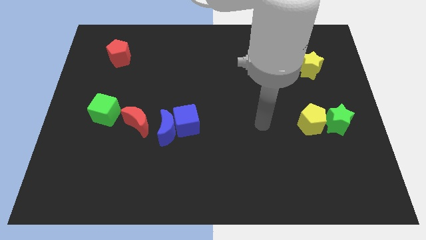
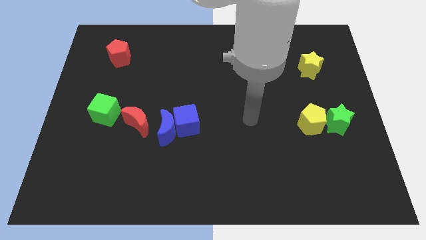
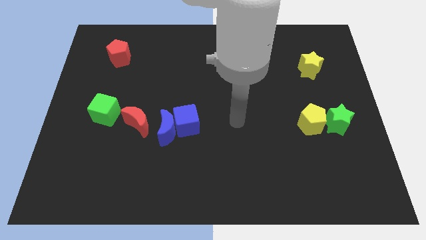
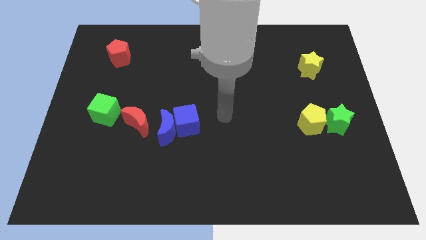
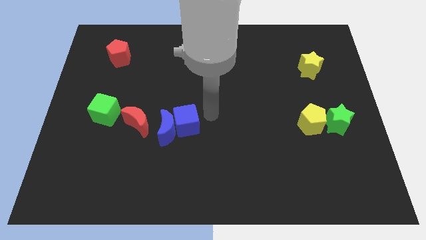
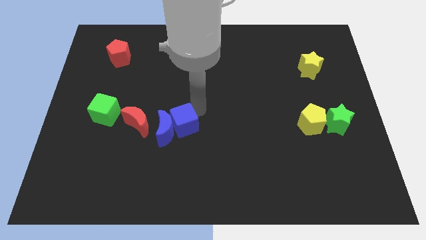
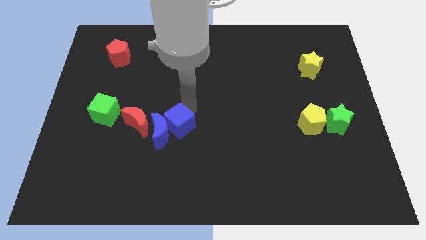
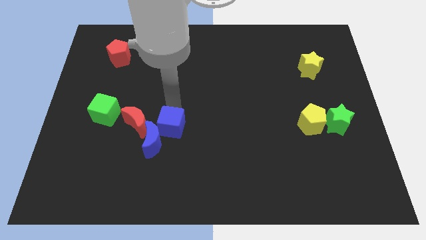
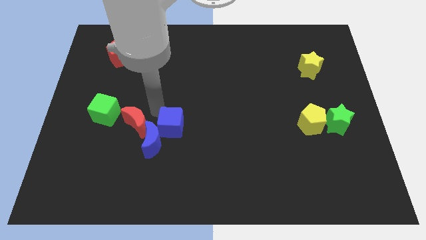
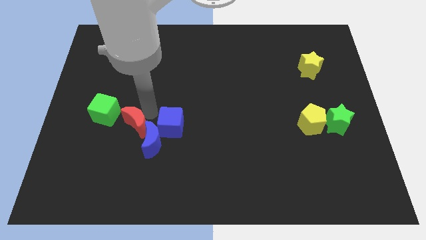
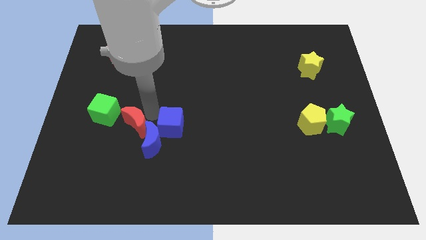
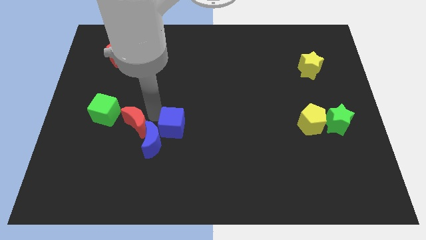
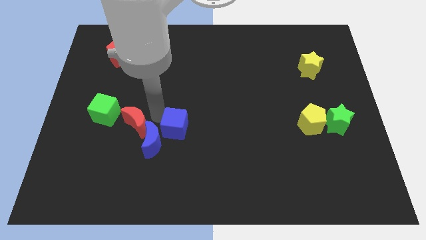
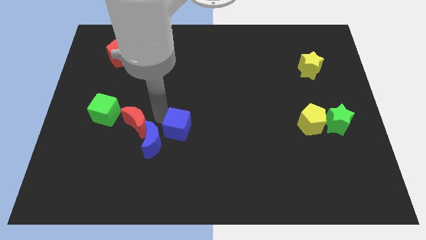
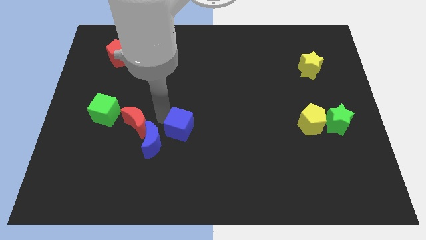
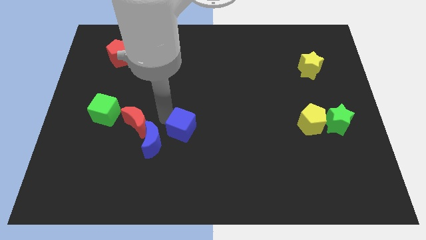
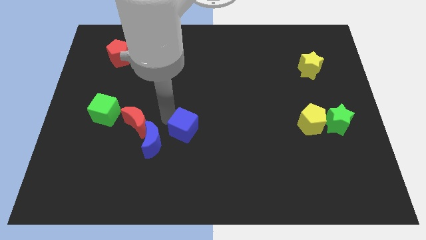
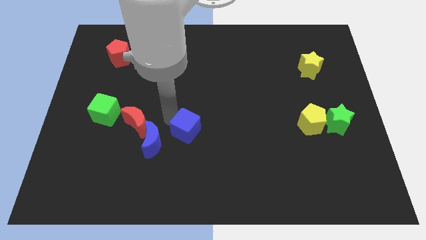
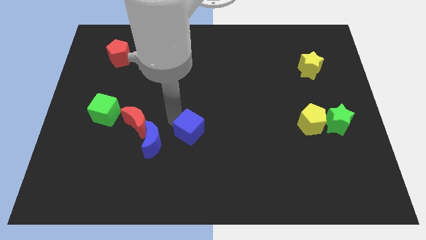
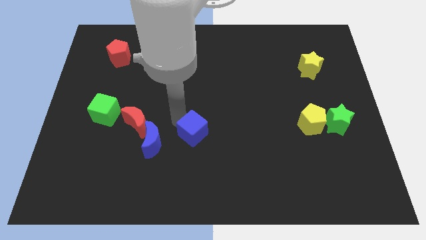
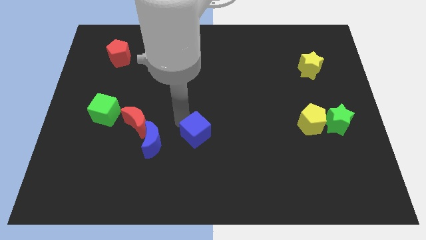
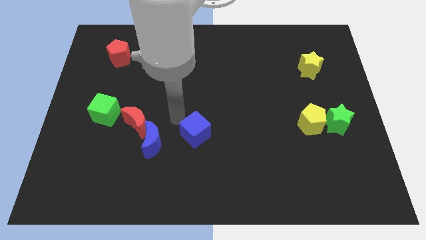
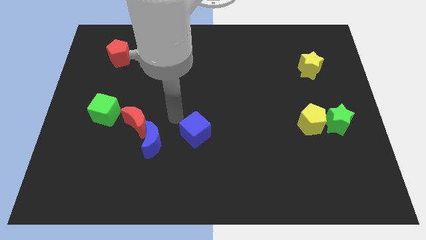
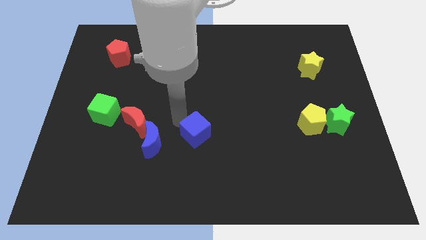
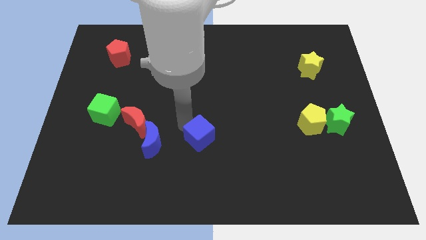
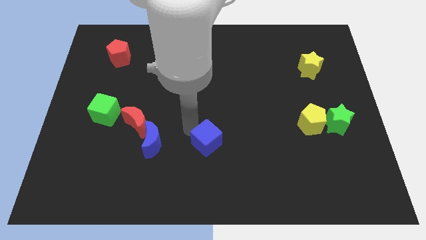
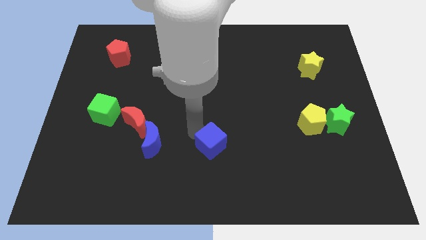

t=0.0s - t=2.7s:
push the blue cube slightly down and right

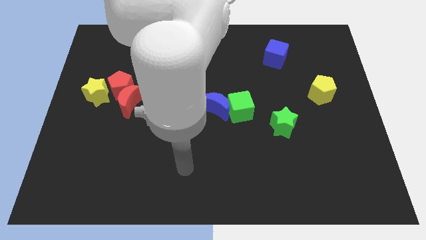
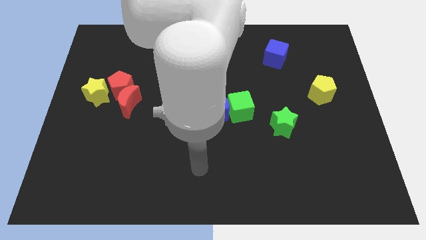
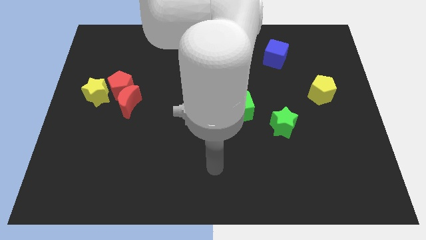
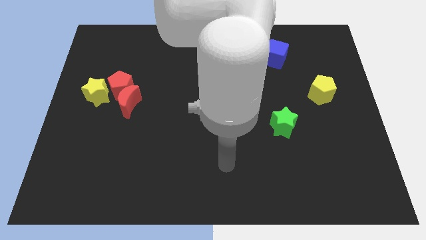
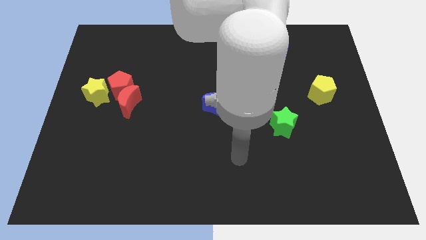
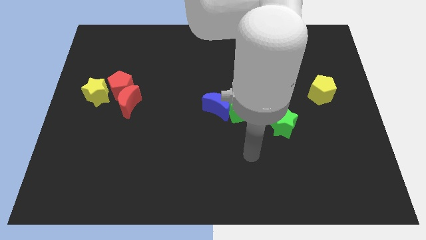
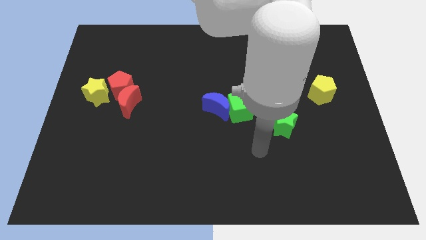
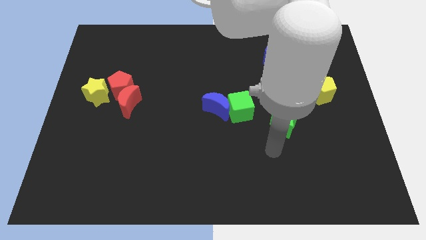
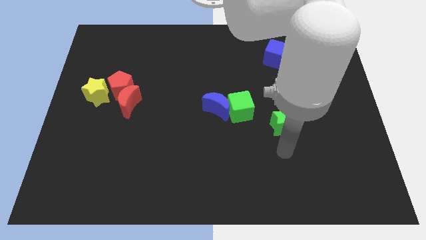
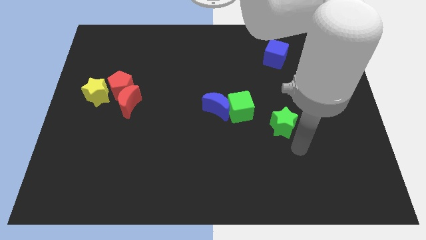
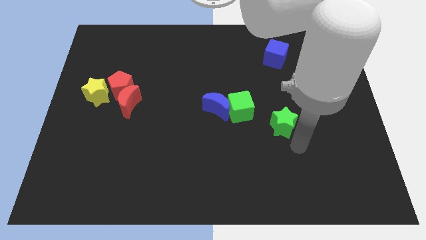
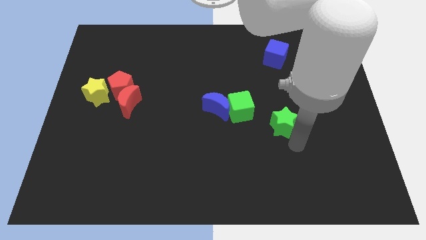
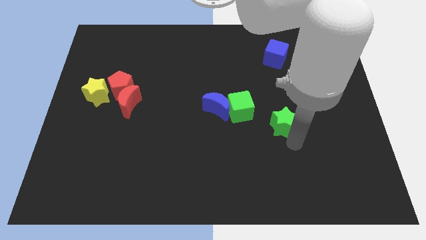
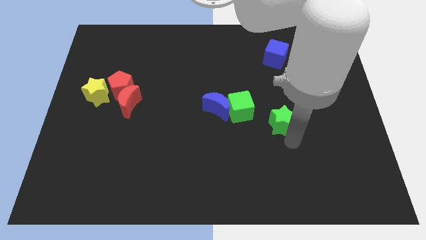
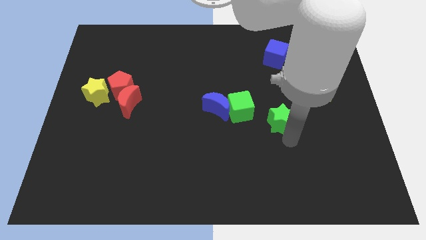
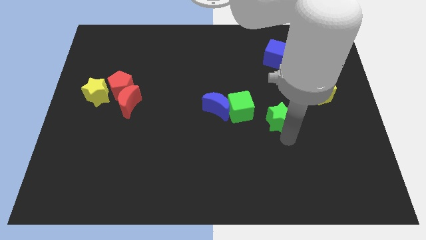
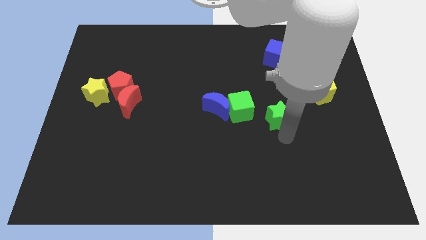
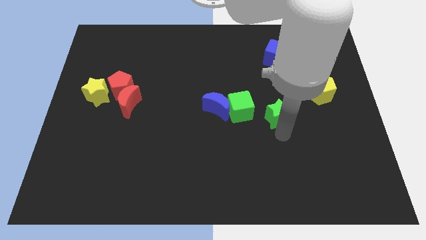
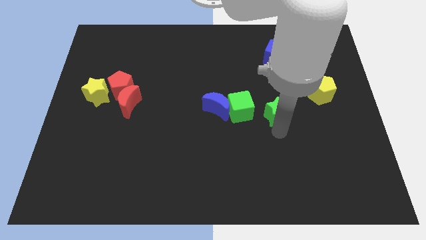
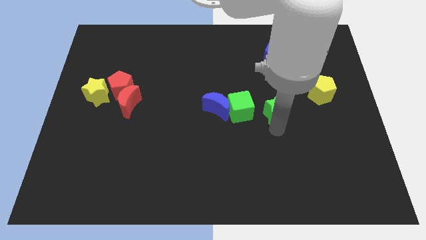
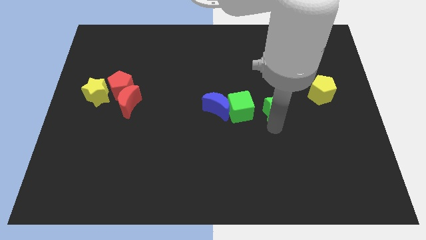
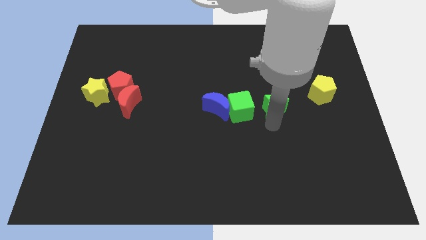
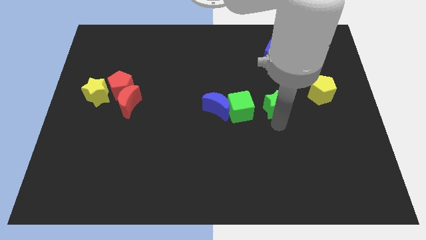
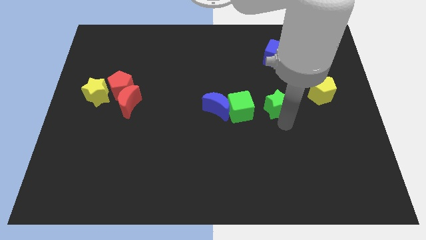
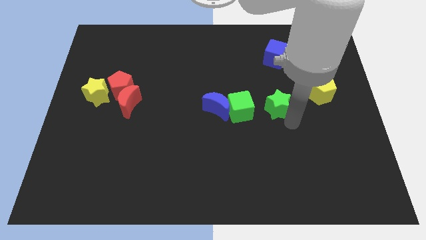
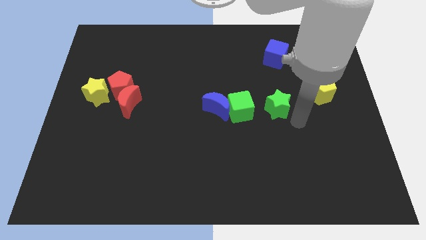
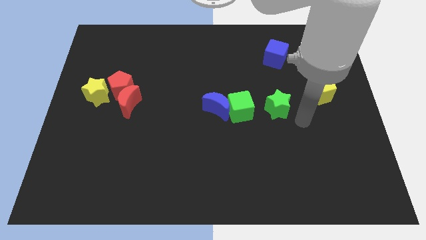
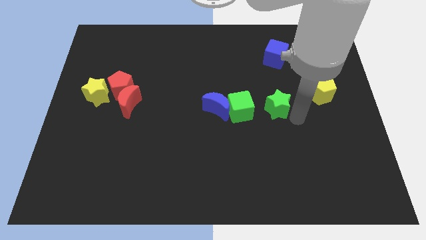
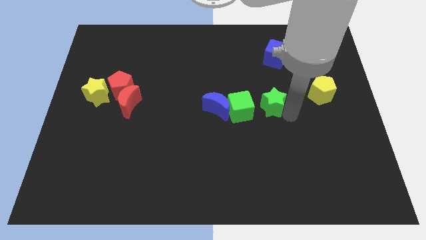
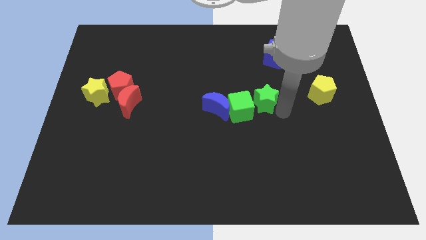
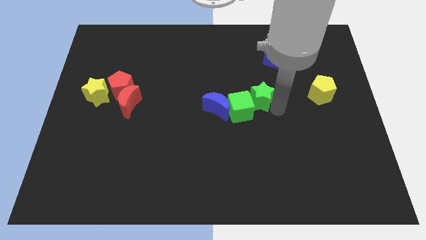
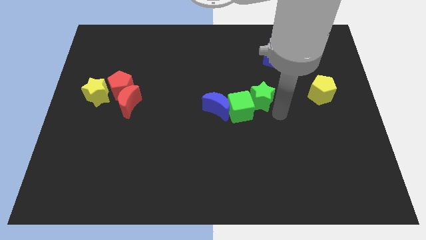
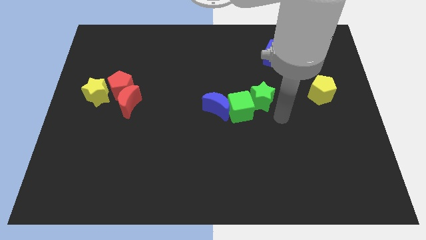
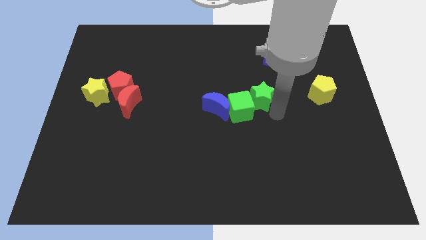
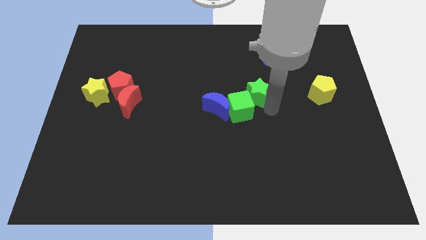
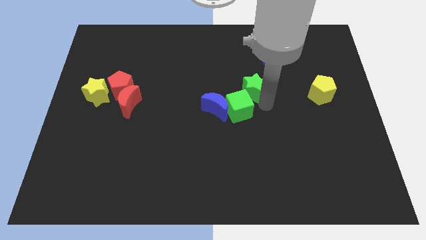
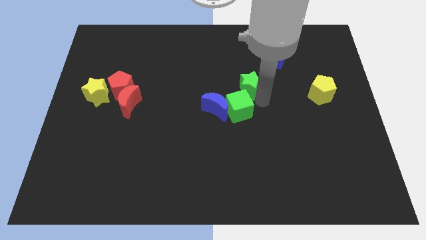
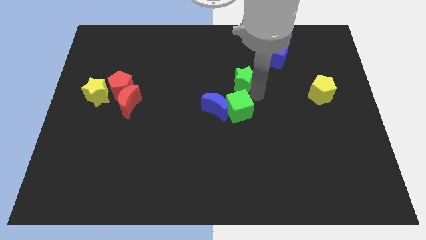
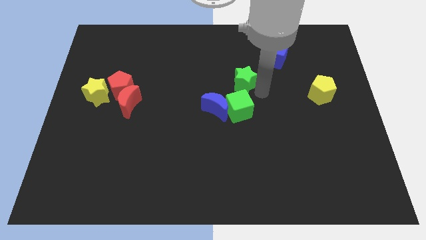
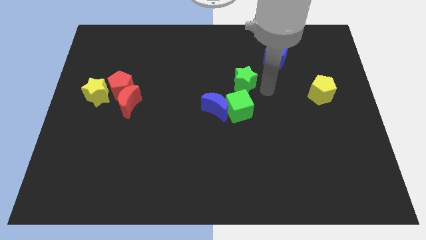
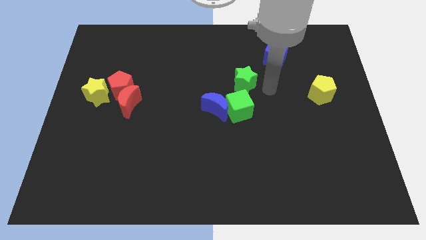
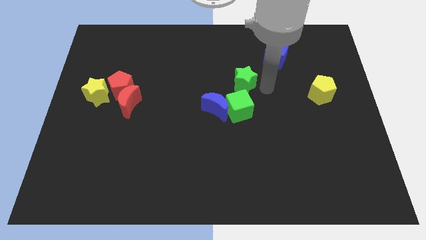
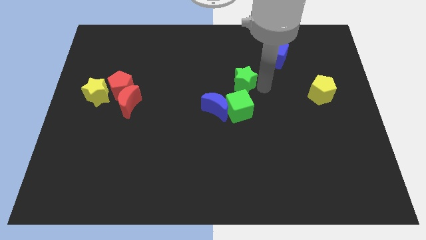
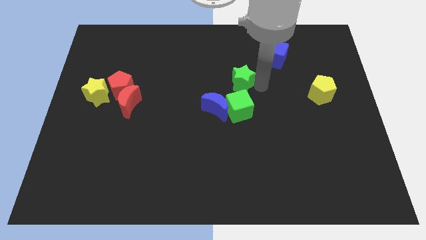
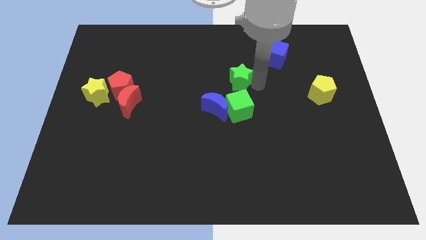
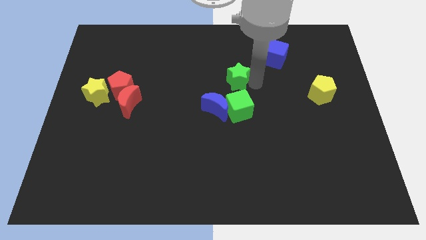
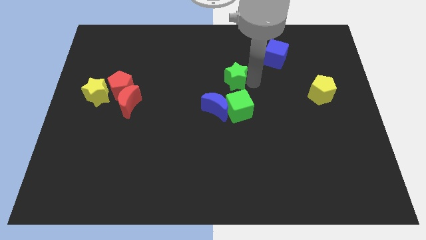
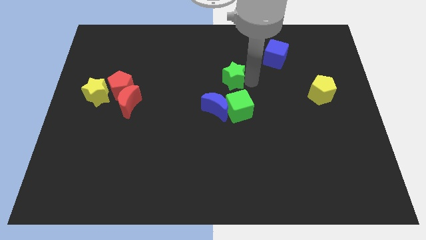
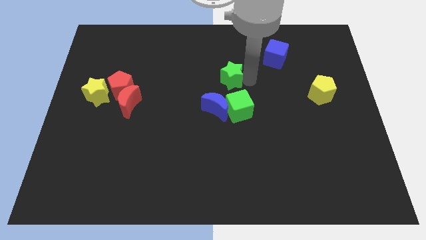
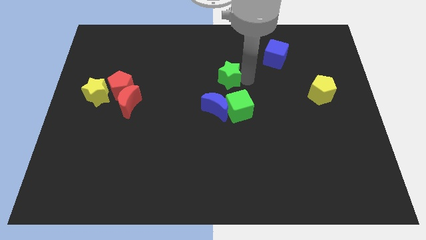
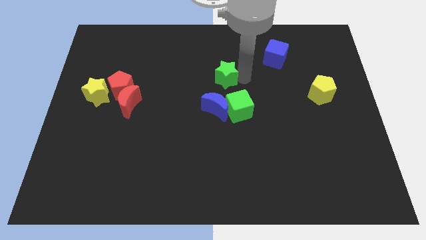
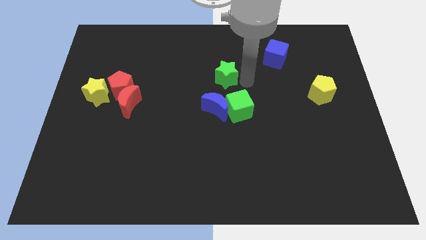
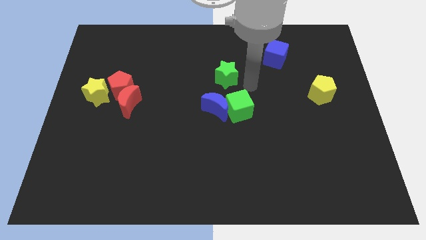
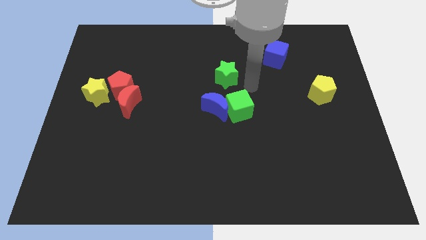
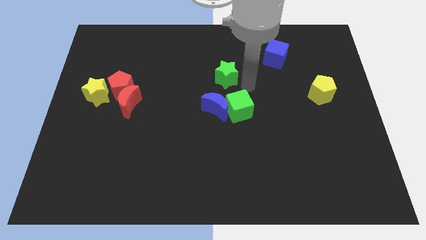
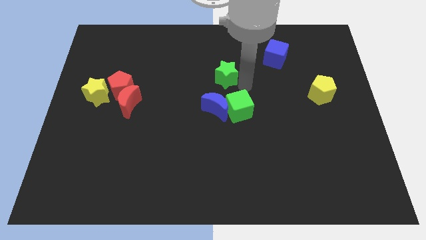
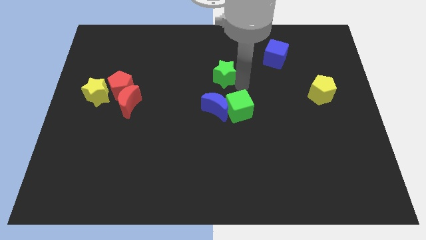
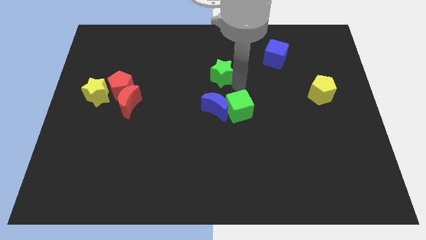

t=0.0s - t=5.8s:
move the green star diagonally upwards and to the left

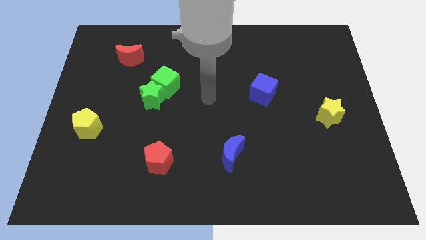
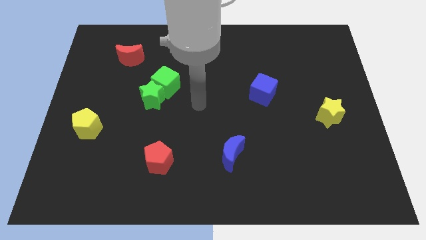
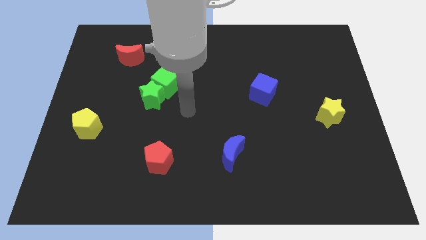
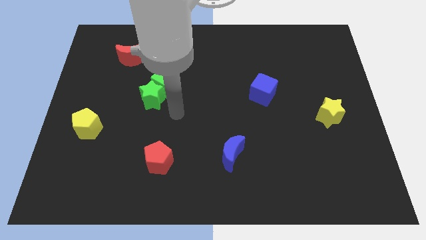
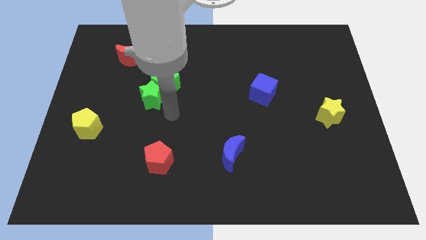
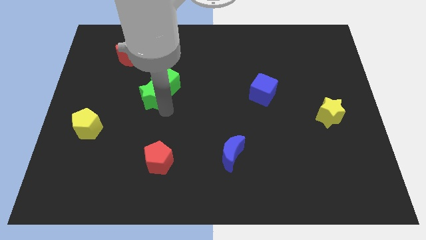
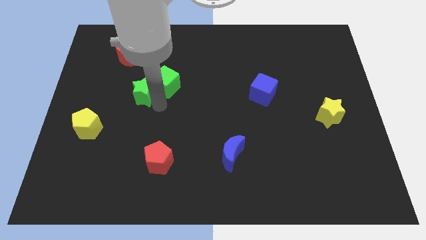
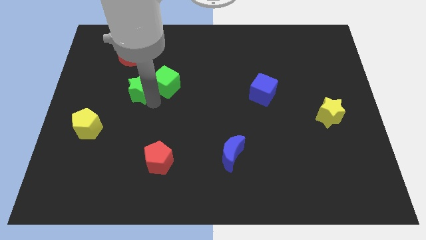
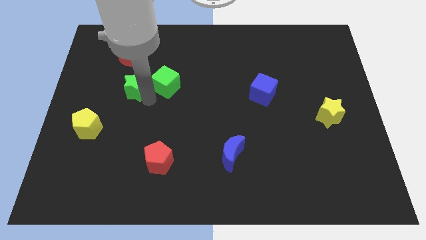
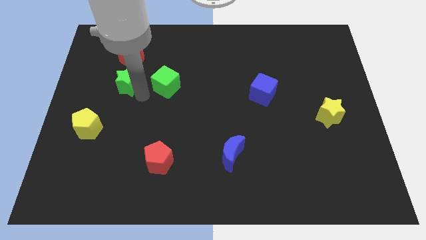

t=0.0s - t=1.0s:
slide the green star up and left a little bit
